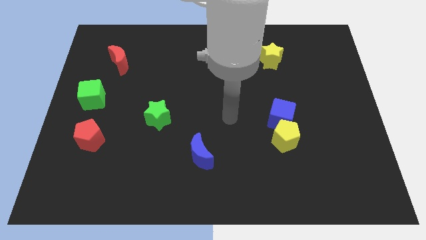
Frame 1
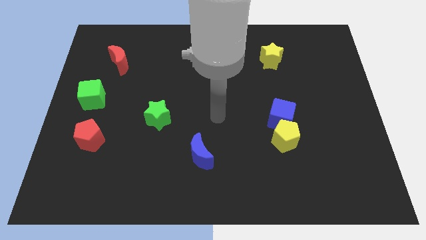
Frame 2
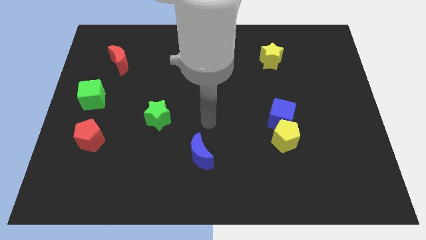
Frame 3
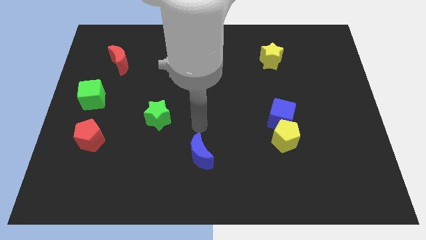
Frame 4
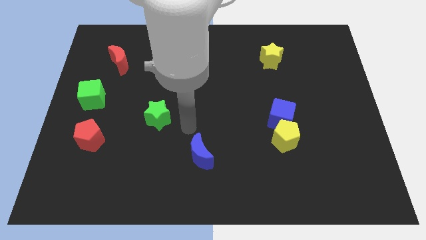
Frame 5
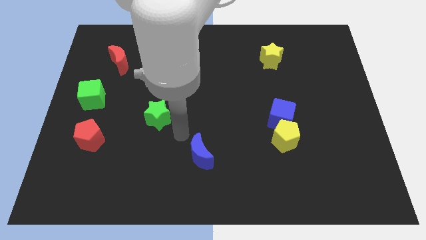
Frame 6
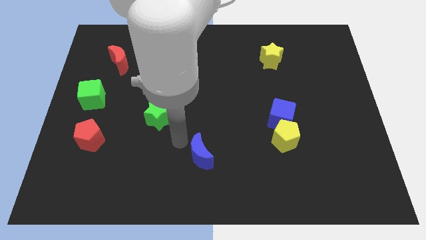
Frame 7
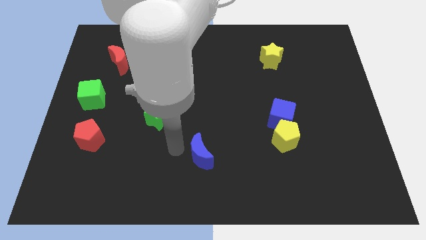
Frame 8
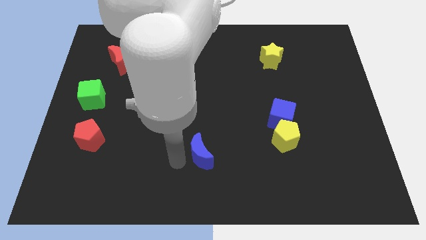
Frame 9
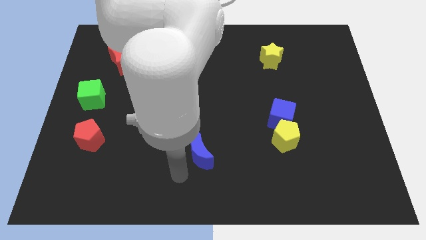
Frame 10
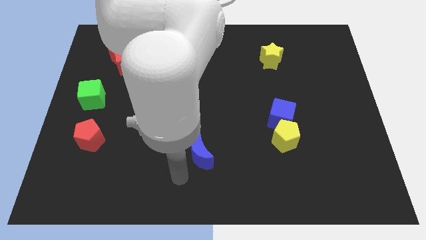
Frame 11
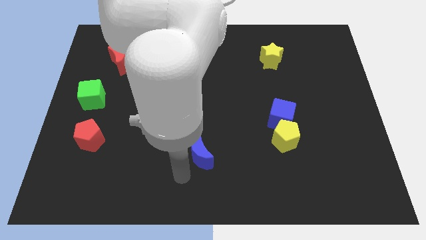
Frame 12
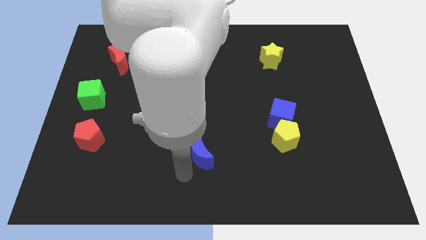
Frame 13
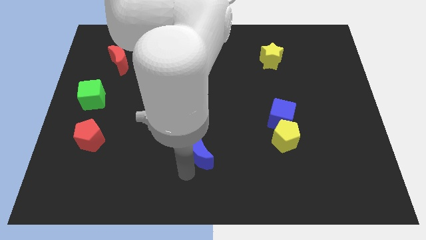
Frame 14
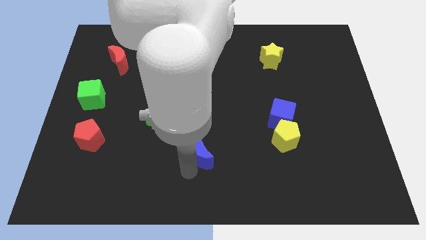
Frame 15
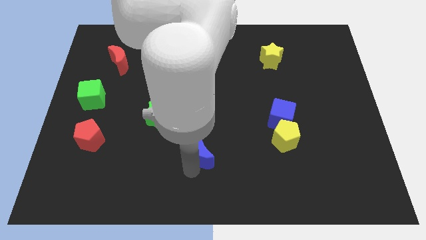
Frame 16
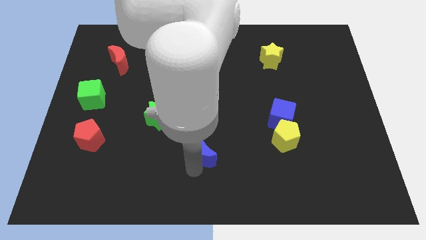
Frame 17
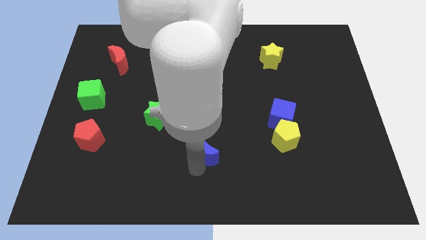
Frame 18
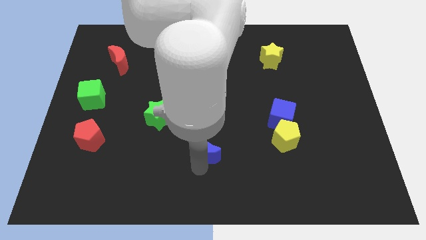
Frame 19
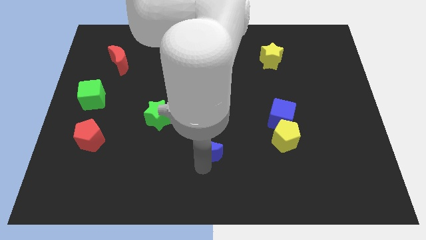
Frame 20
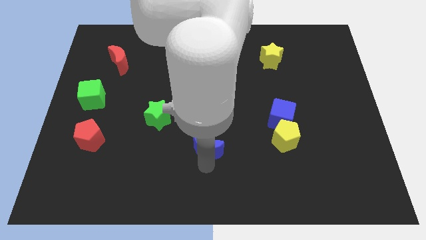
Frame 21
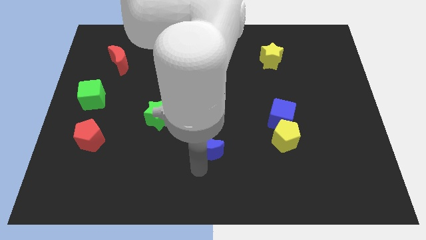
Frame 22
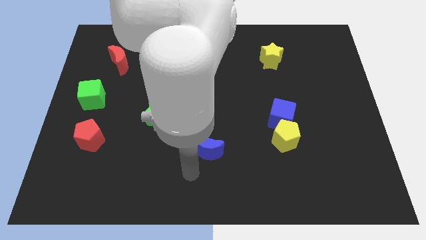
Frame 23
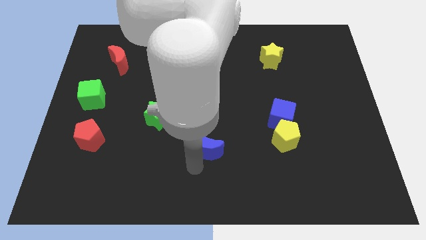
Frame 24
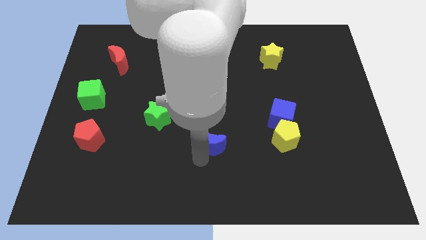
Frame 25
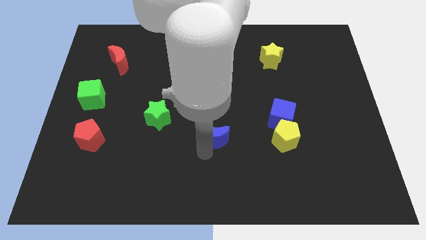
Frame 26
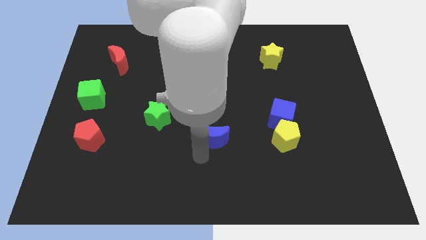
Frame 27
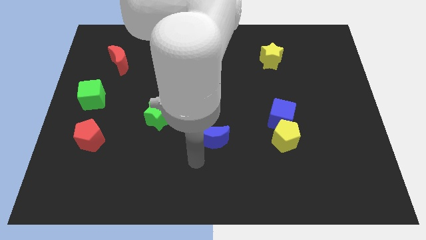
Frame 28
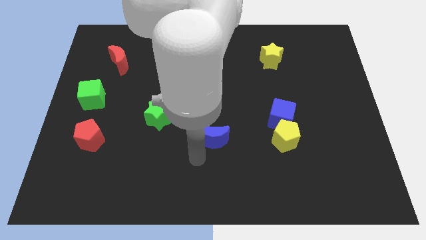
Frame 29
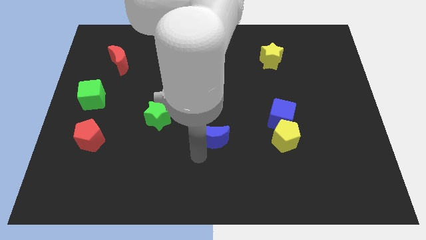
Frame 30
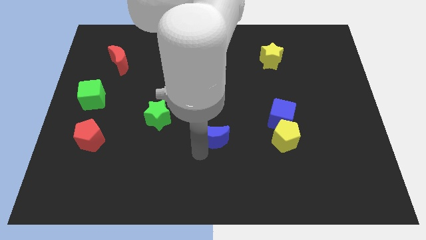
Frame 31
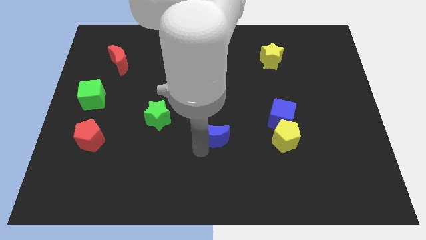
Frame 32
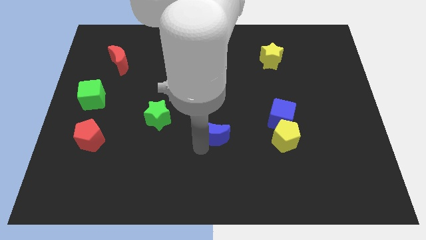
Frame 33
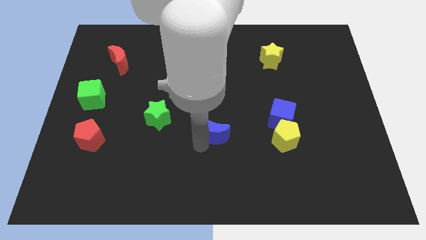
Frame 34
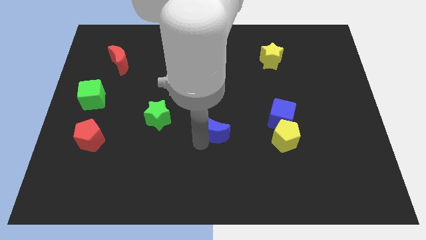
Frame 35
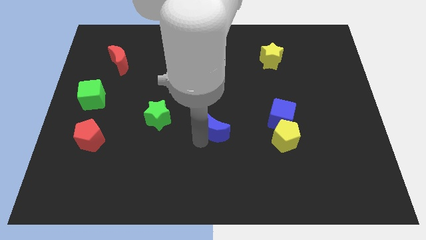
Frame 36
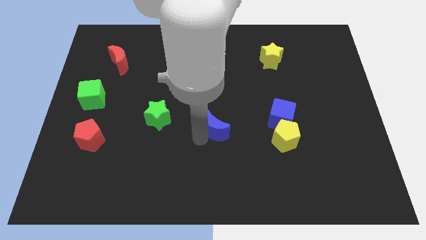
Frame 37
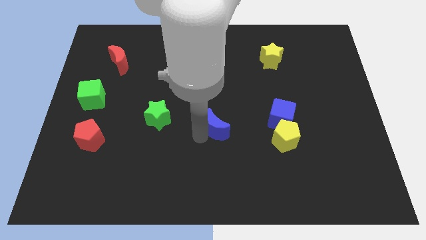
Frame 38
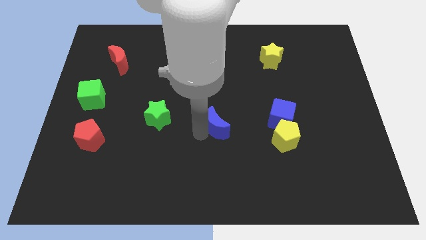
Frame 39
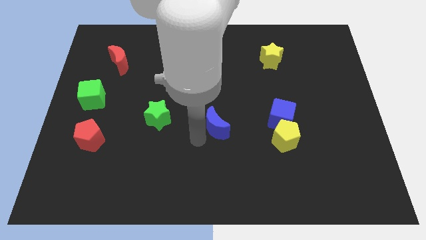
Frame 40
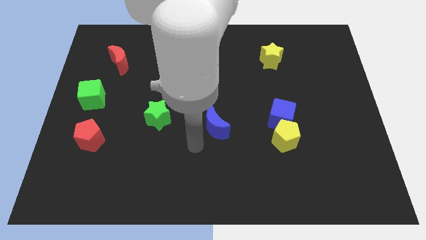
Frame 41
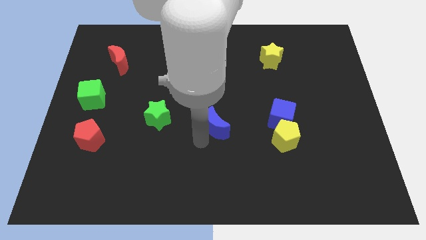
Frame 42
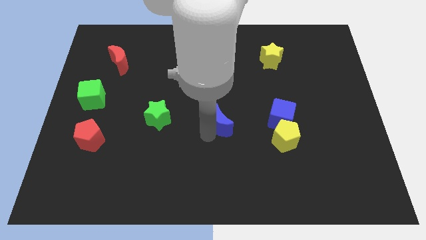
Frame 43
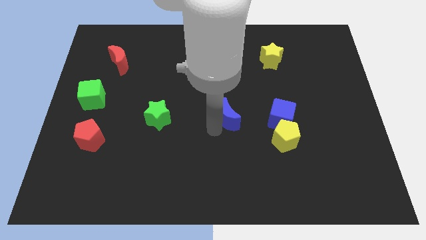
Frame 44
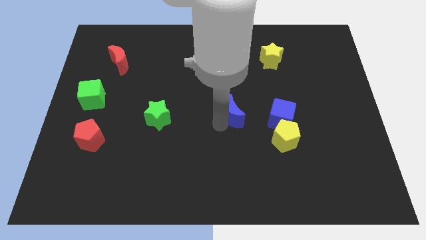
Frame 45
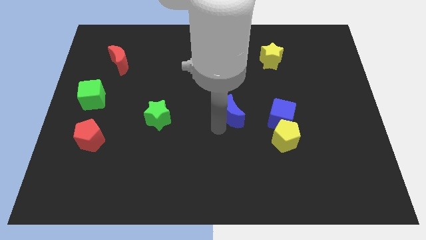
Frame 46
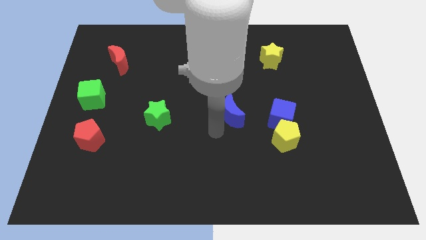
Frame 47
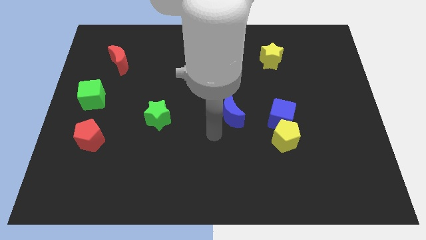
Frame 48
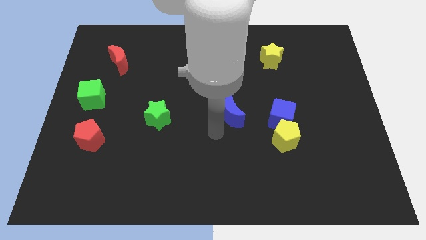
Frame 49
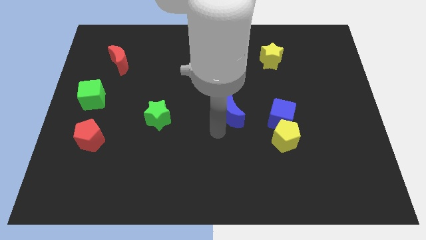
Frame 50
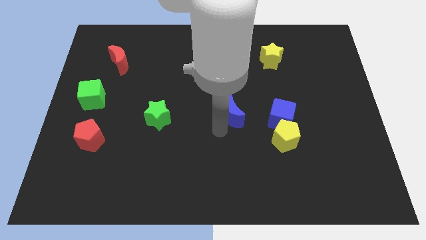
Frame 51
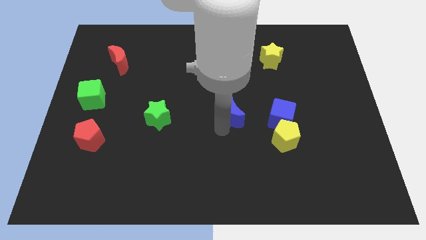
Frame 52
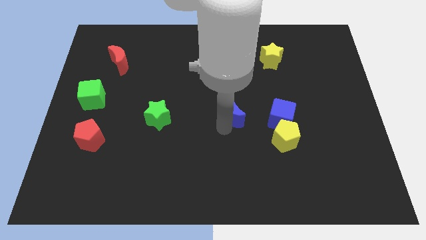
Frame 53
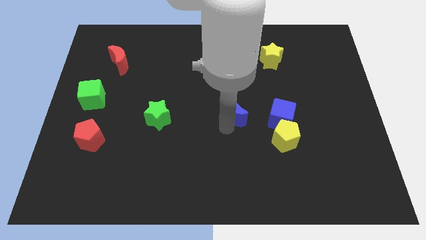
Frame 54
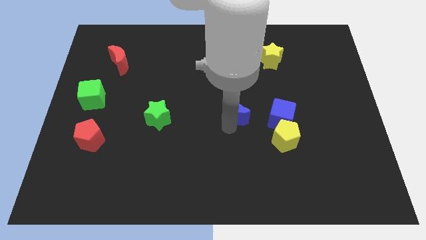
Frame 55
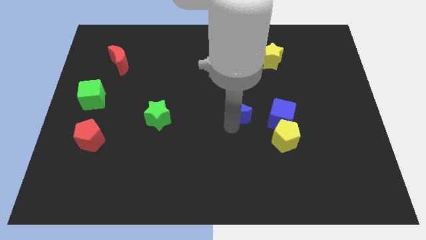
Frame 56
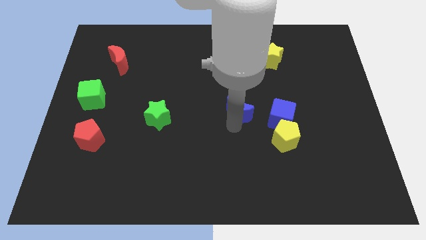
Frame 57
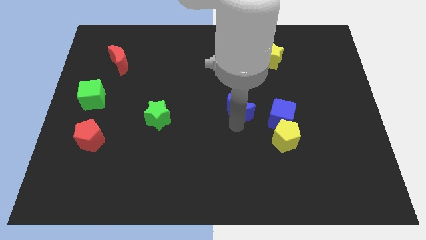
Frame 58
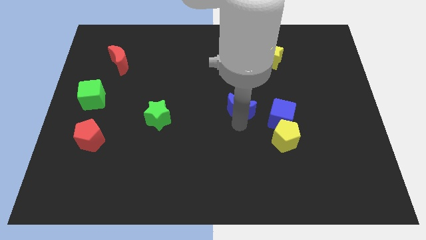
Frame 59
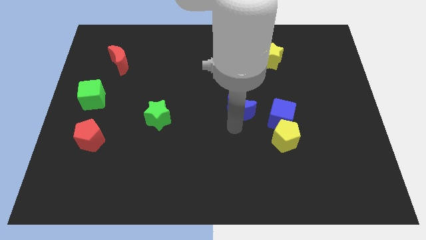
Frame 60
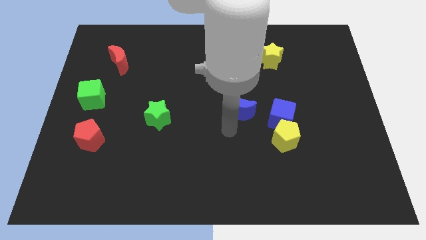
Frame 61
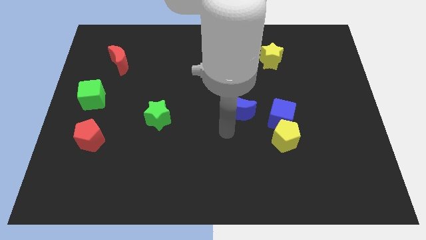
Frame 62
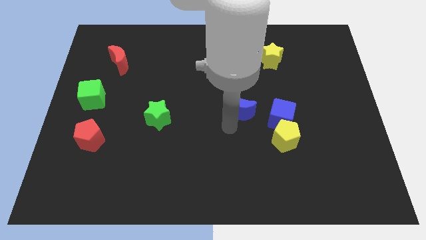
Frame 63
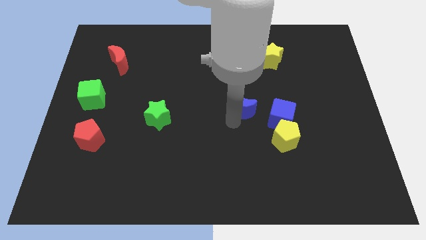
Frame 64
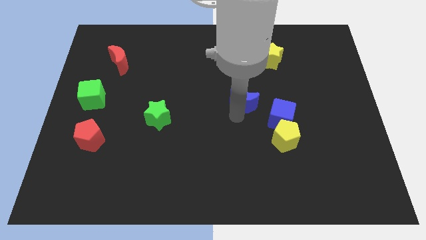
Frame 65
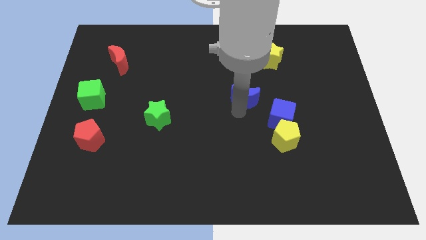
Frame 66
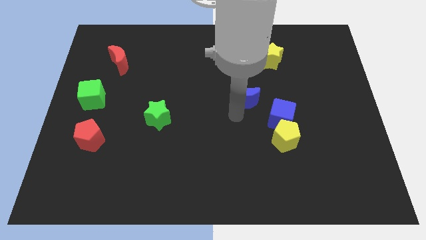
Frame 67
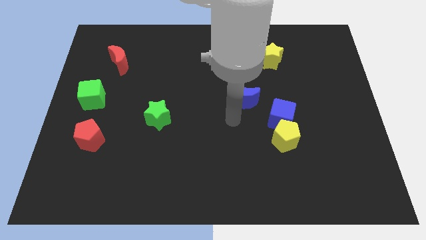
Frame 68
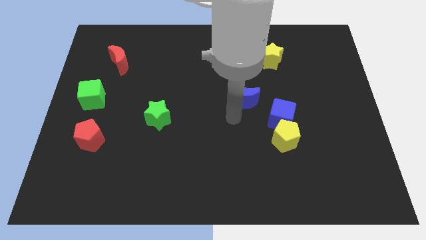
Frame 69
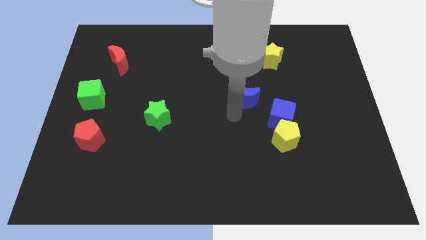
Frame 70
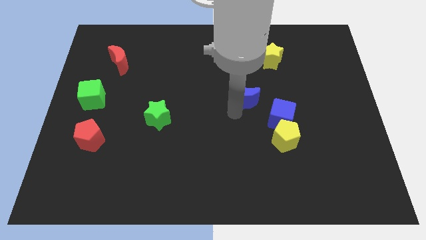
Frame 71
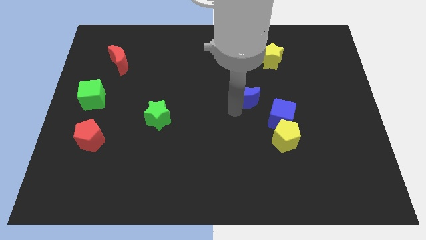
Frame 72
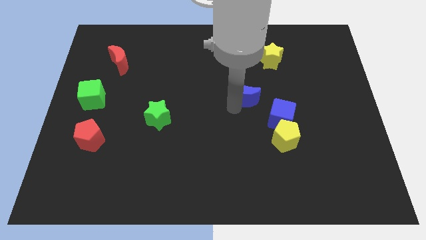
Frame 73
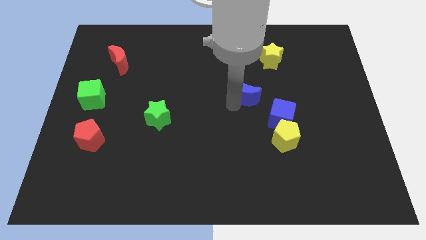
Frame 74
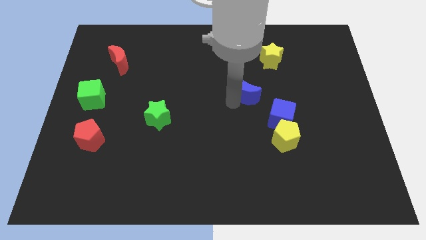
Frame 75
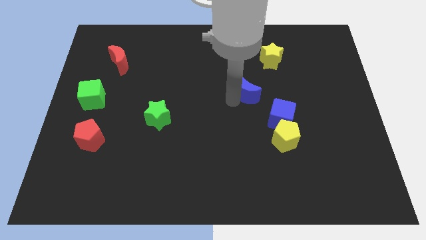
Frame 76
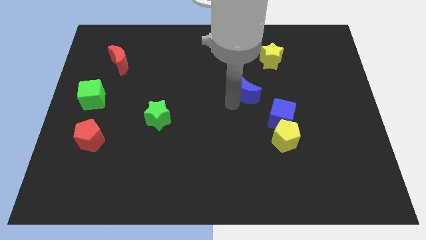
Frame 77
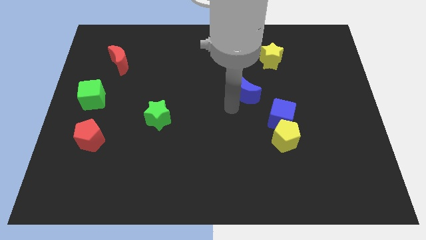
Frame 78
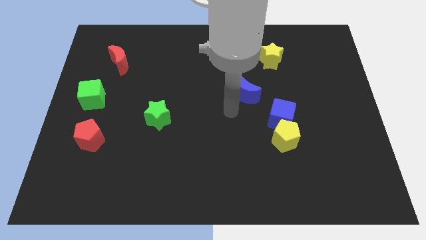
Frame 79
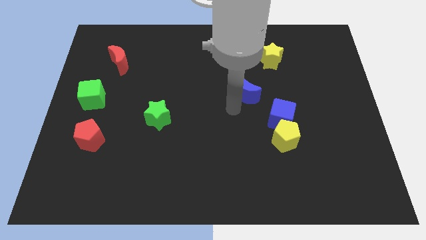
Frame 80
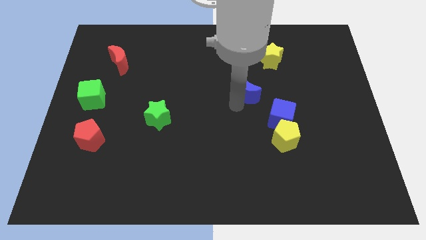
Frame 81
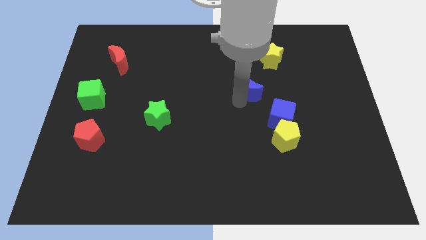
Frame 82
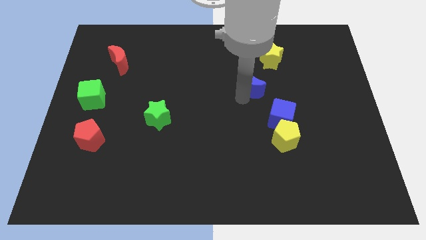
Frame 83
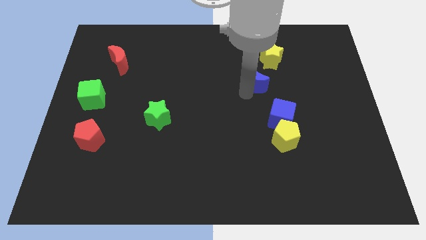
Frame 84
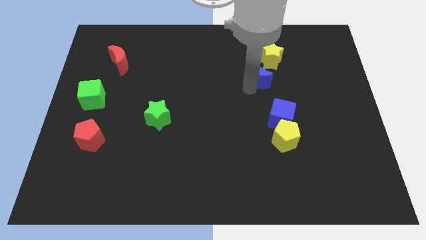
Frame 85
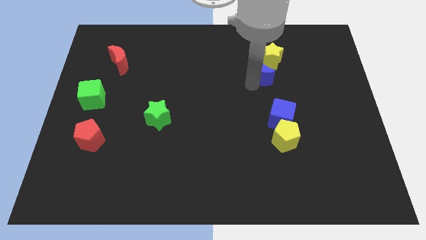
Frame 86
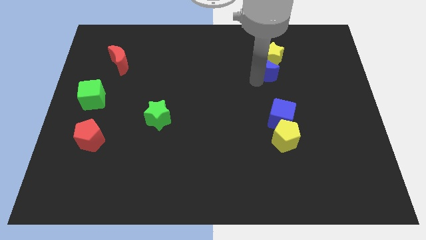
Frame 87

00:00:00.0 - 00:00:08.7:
move the blue moon close to the yellow star
